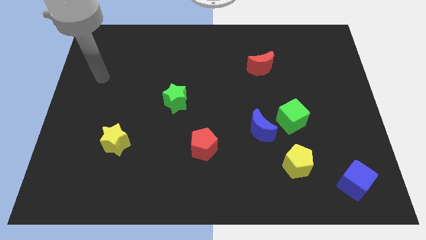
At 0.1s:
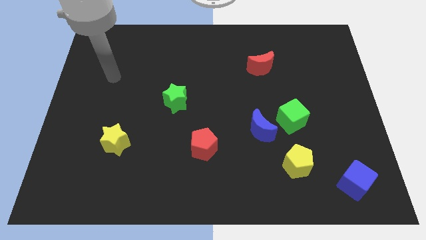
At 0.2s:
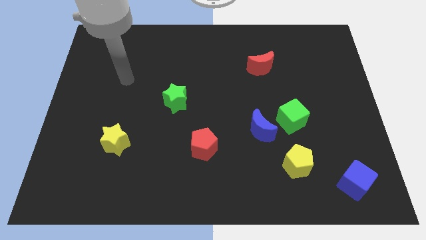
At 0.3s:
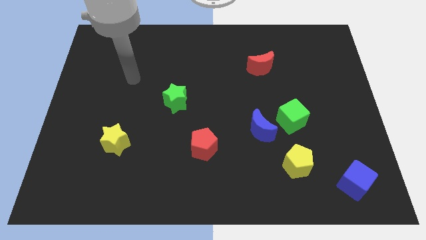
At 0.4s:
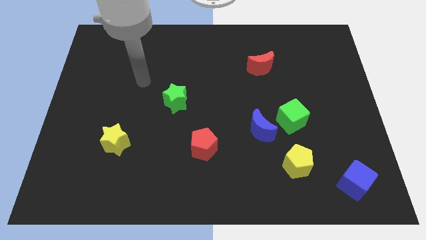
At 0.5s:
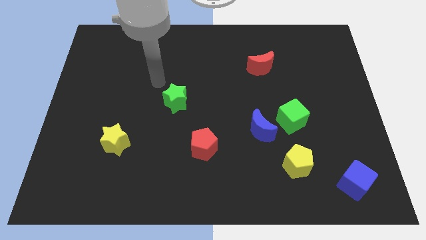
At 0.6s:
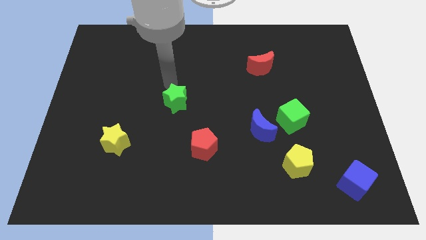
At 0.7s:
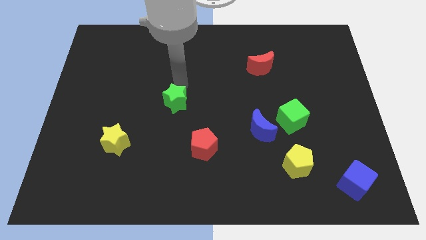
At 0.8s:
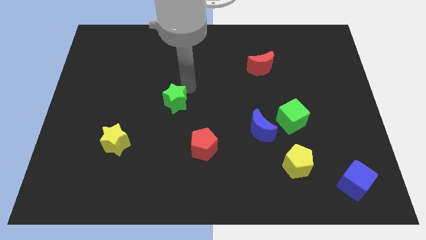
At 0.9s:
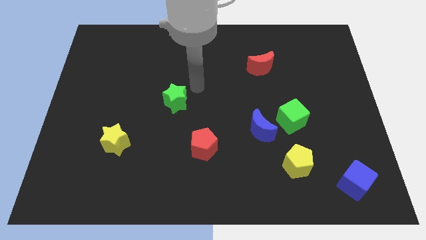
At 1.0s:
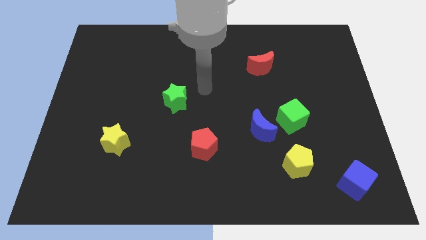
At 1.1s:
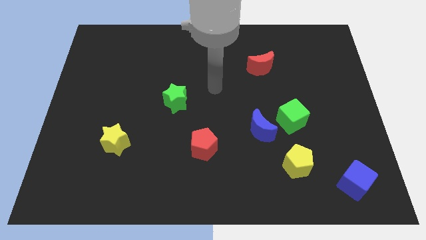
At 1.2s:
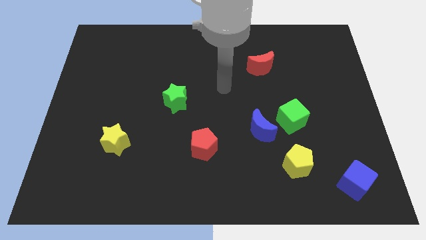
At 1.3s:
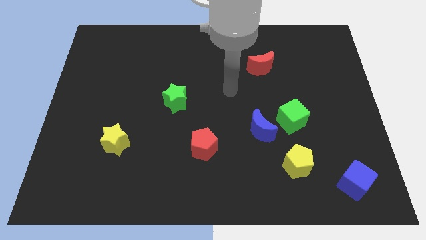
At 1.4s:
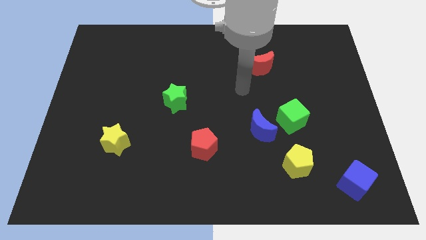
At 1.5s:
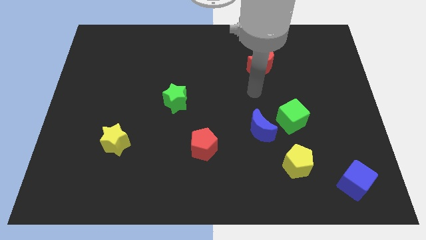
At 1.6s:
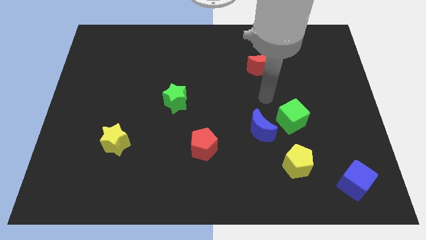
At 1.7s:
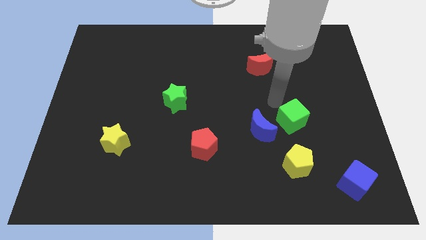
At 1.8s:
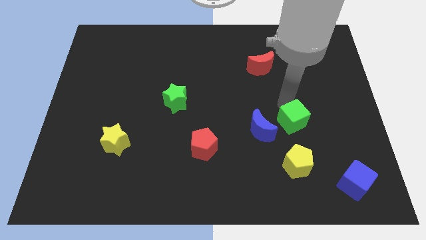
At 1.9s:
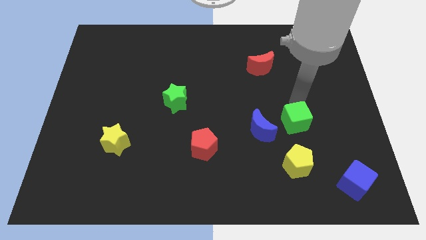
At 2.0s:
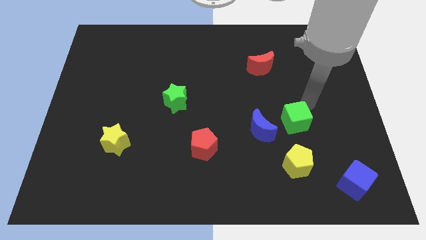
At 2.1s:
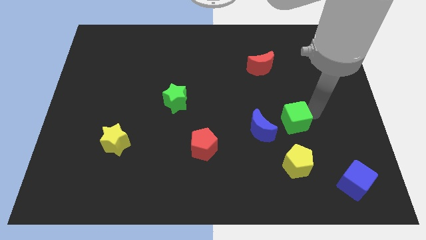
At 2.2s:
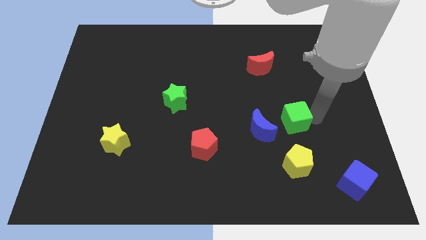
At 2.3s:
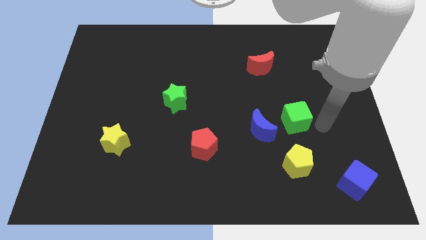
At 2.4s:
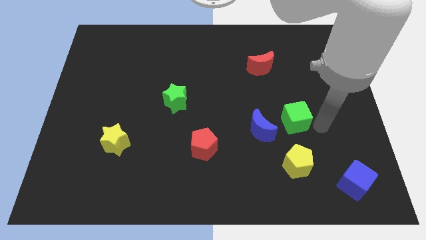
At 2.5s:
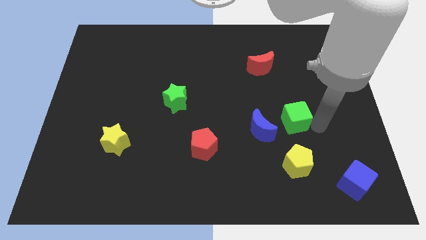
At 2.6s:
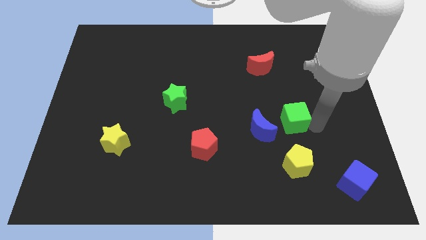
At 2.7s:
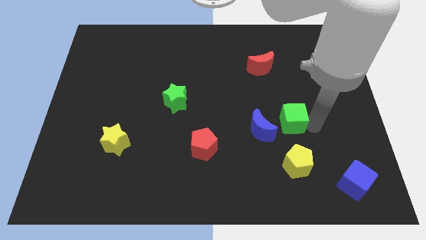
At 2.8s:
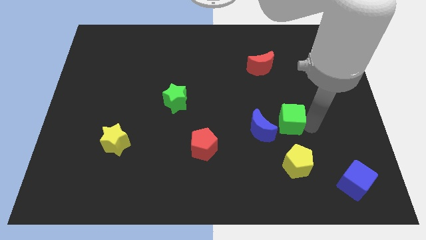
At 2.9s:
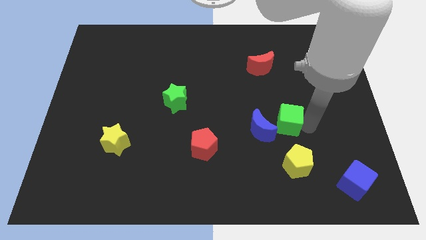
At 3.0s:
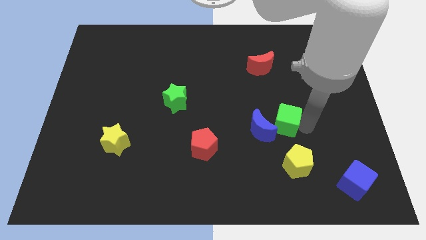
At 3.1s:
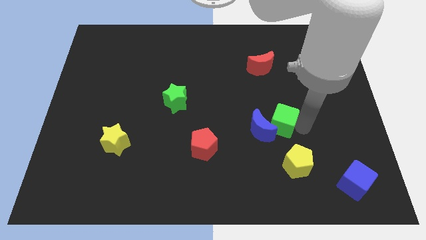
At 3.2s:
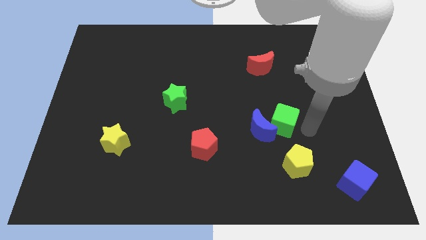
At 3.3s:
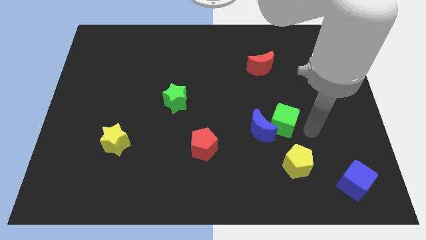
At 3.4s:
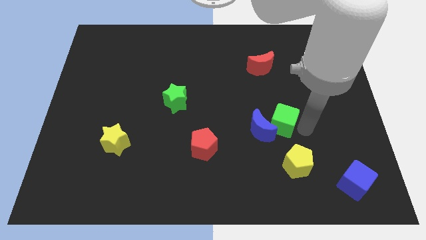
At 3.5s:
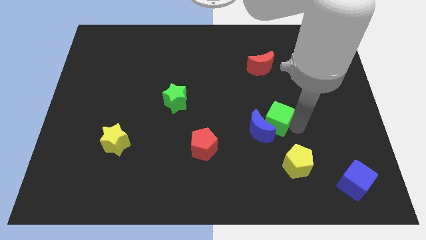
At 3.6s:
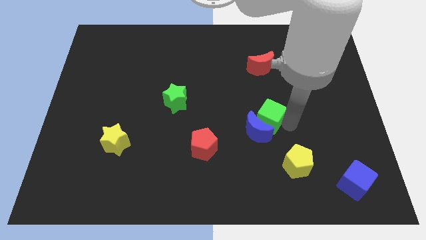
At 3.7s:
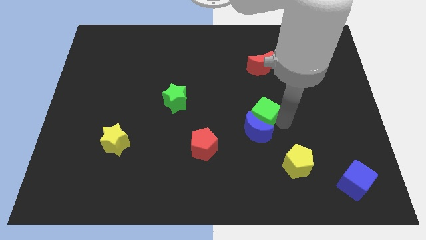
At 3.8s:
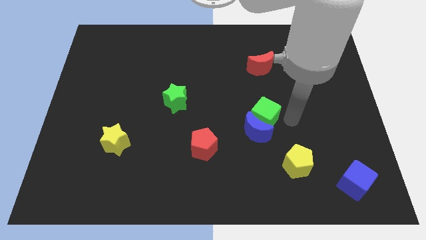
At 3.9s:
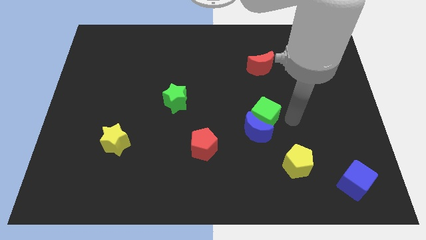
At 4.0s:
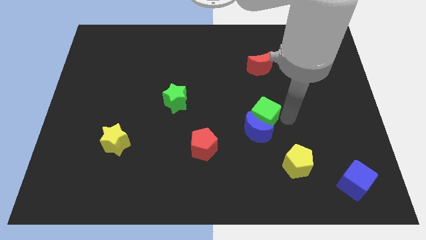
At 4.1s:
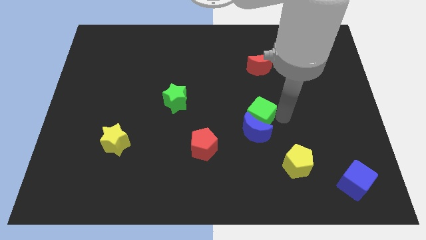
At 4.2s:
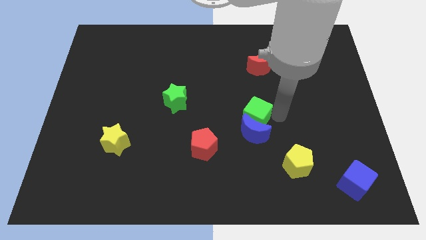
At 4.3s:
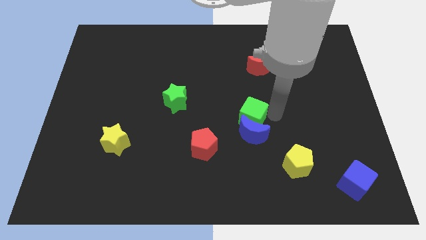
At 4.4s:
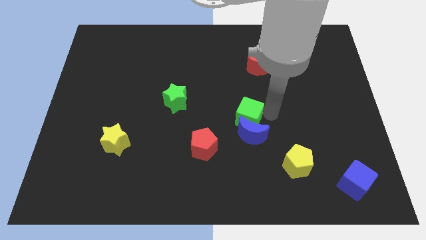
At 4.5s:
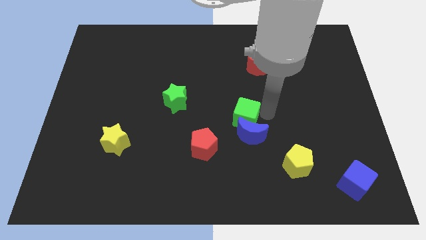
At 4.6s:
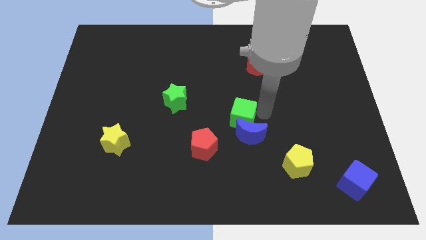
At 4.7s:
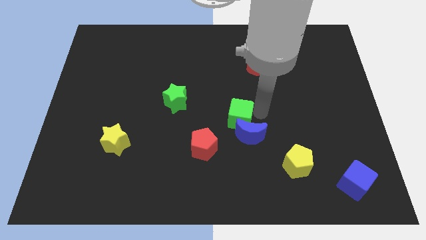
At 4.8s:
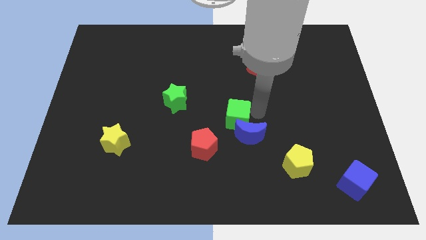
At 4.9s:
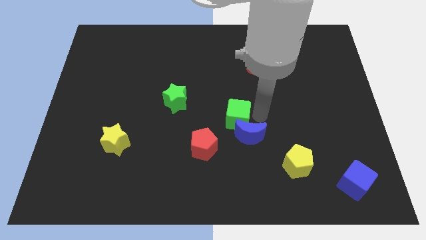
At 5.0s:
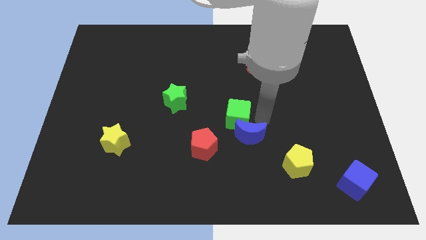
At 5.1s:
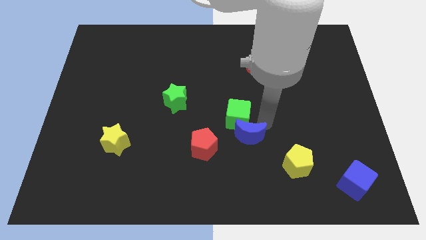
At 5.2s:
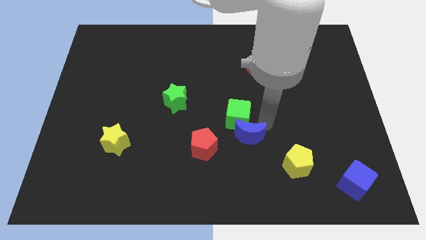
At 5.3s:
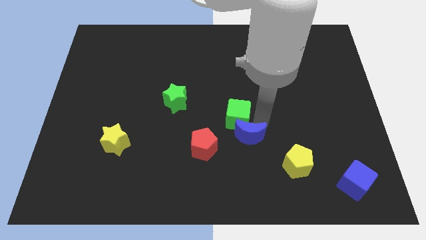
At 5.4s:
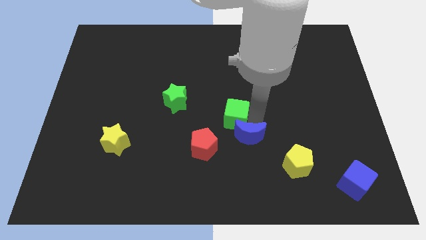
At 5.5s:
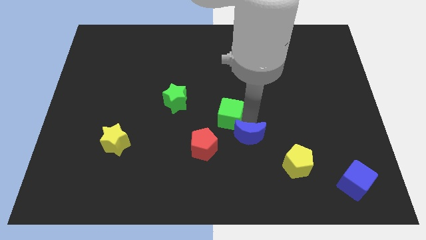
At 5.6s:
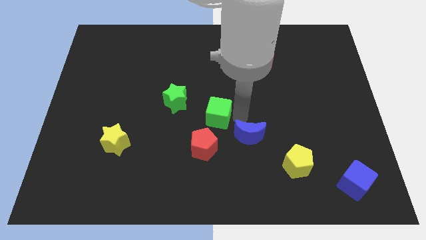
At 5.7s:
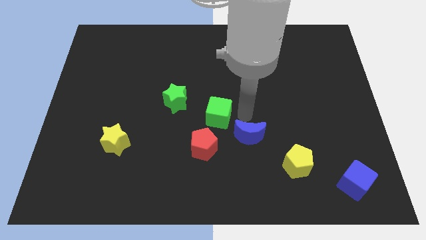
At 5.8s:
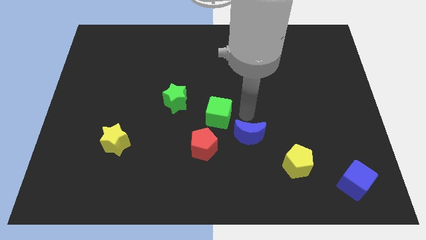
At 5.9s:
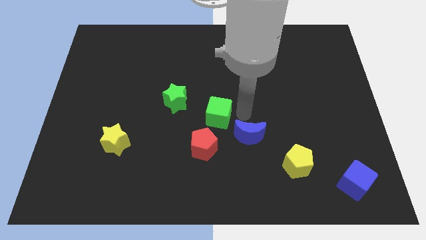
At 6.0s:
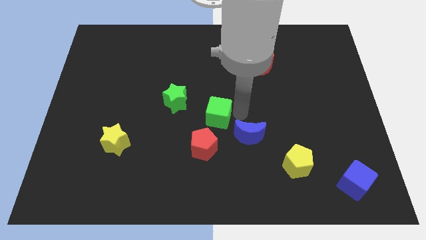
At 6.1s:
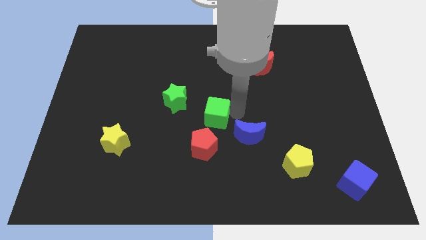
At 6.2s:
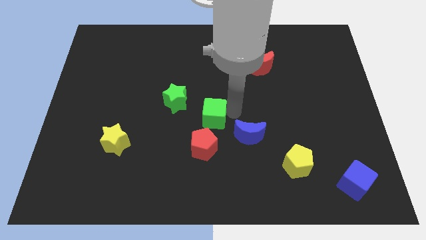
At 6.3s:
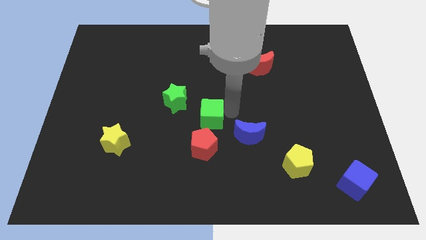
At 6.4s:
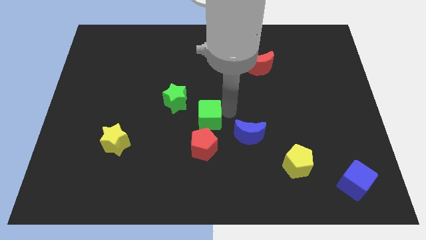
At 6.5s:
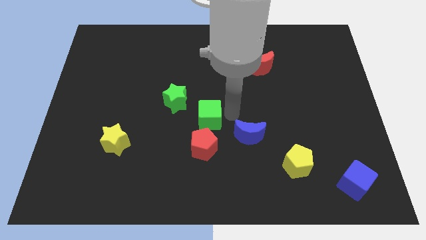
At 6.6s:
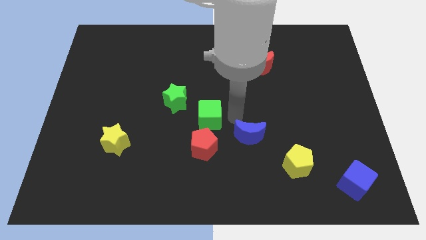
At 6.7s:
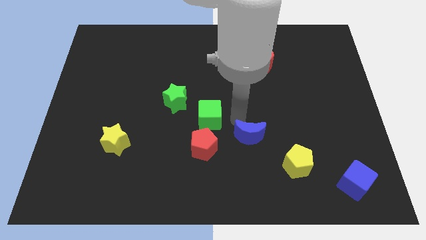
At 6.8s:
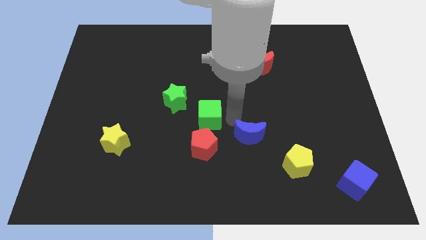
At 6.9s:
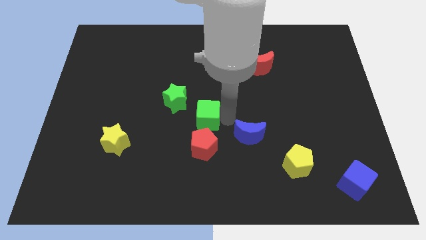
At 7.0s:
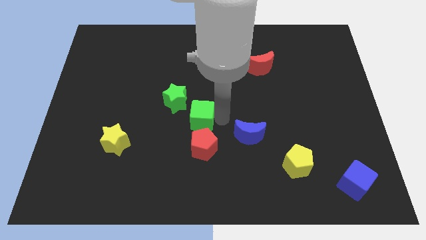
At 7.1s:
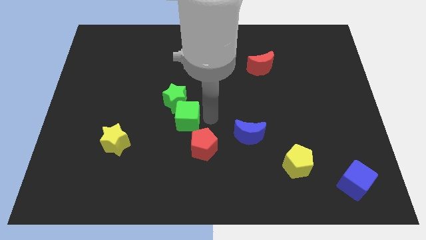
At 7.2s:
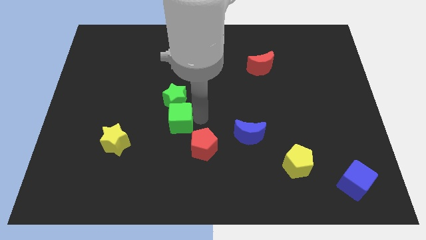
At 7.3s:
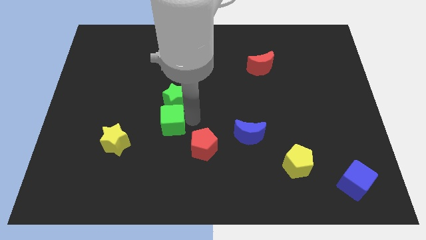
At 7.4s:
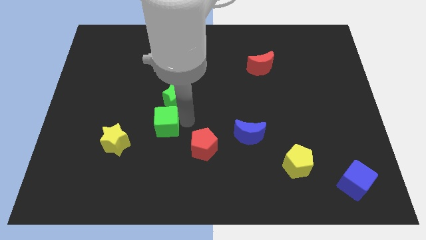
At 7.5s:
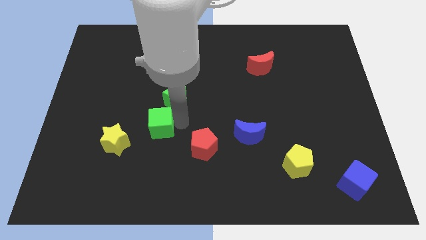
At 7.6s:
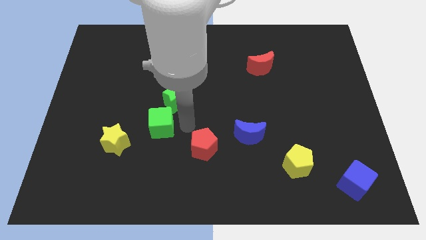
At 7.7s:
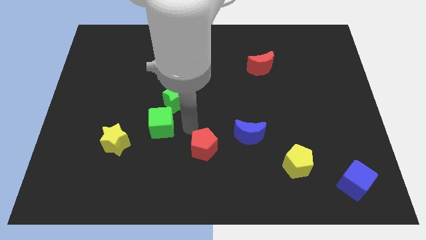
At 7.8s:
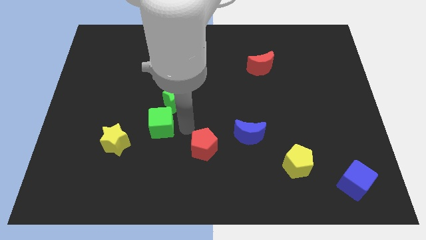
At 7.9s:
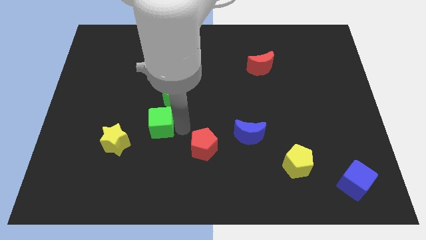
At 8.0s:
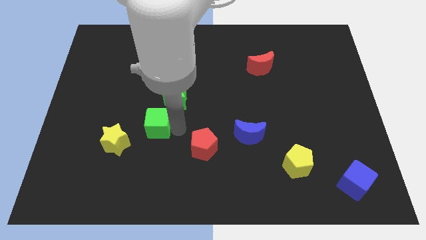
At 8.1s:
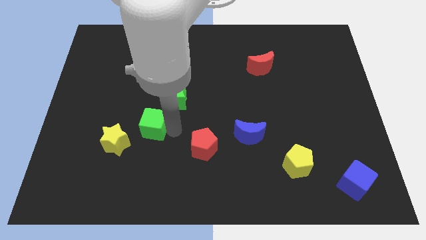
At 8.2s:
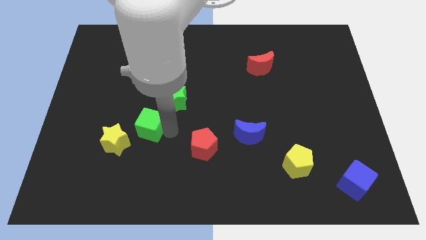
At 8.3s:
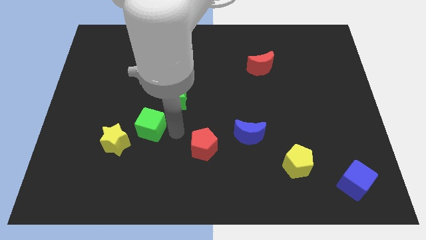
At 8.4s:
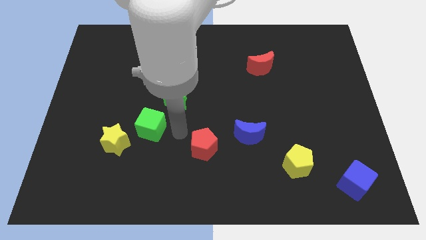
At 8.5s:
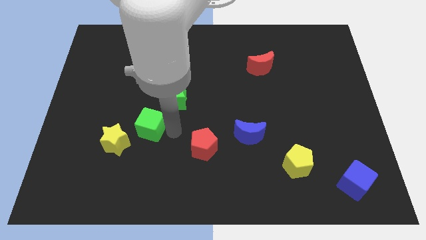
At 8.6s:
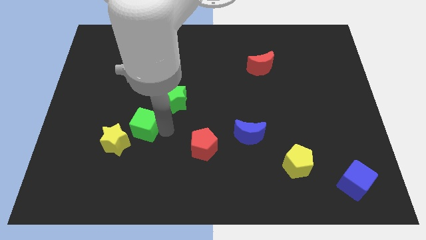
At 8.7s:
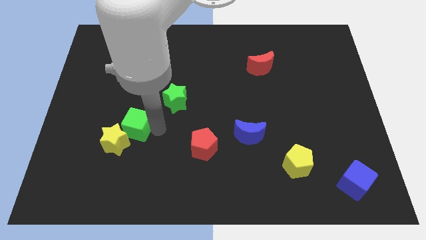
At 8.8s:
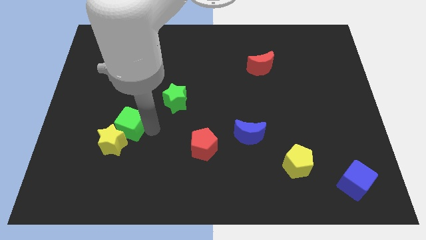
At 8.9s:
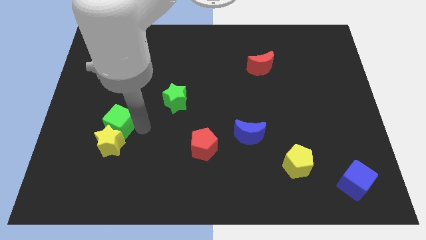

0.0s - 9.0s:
move the green cube diagonally up and to the left of the yellow star
